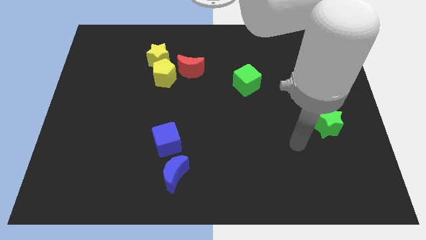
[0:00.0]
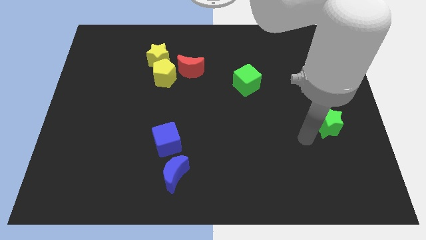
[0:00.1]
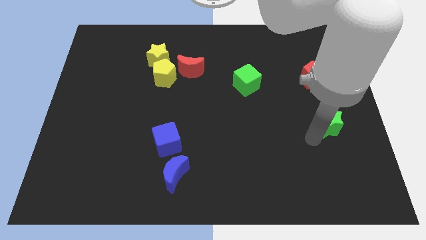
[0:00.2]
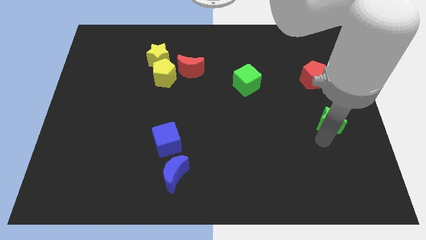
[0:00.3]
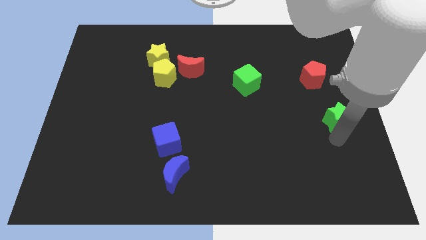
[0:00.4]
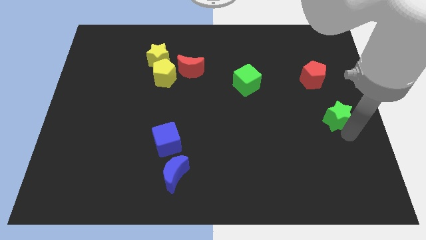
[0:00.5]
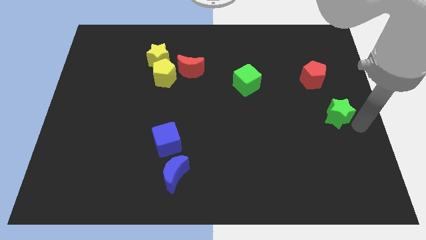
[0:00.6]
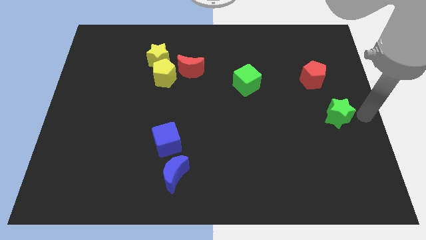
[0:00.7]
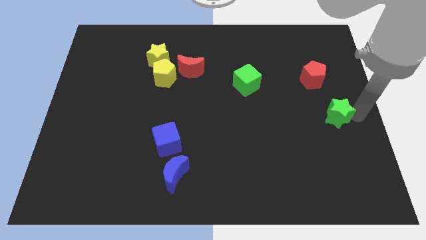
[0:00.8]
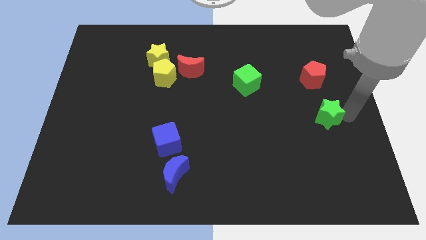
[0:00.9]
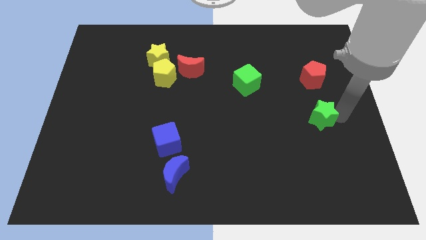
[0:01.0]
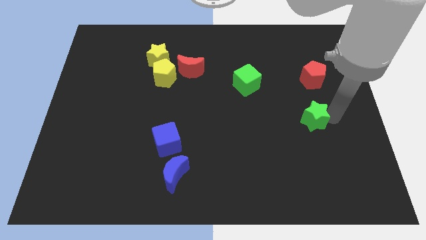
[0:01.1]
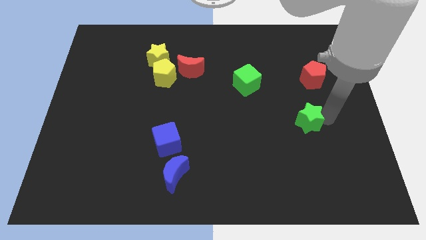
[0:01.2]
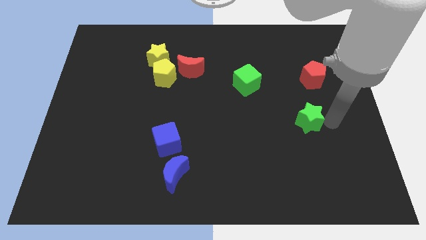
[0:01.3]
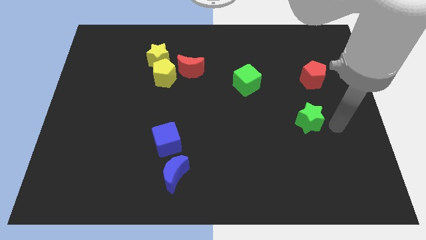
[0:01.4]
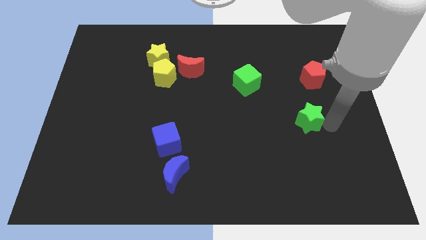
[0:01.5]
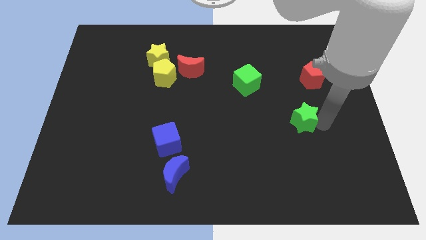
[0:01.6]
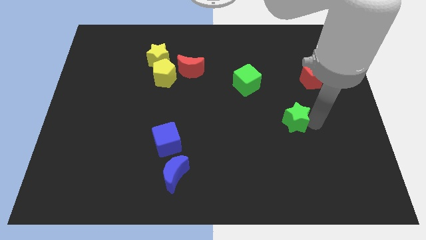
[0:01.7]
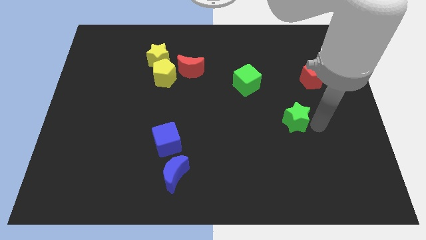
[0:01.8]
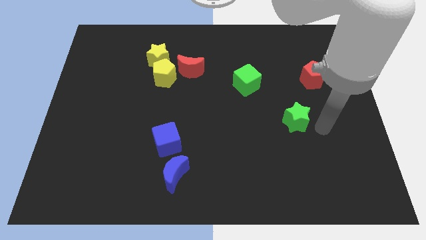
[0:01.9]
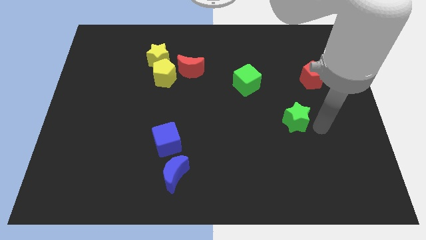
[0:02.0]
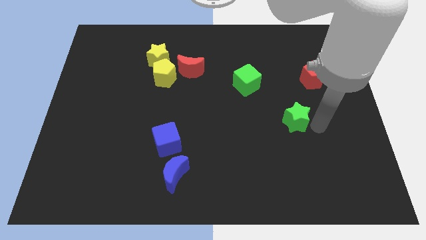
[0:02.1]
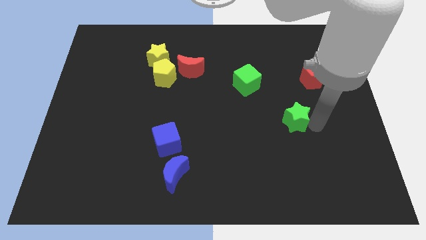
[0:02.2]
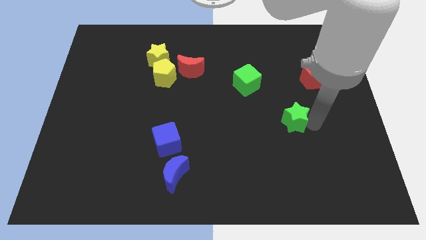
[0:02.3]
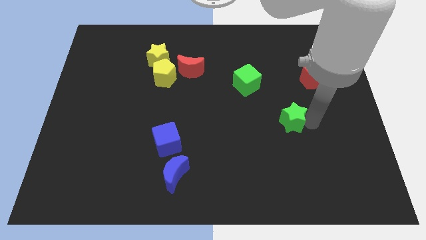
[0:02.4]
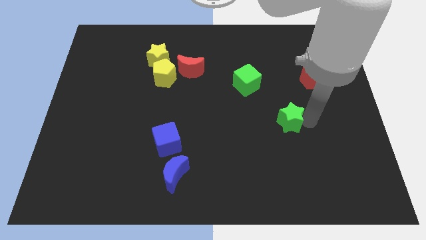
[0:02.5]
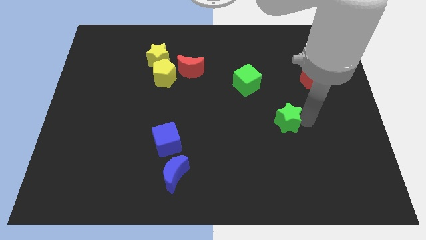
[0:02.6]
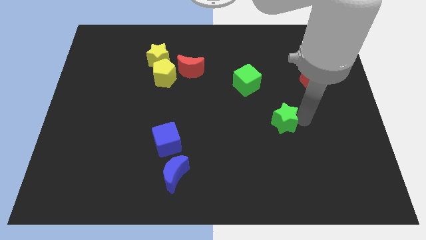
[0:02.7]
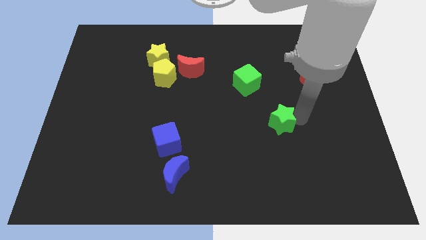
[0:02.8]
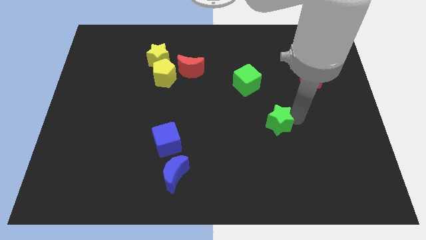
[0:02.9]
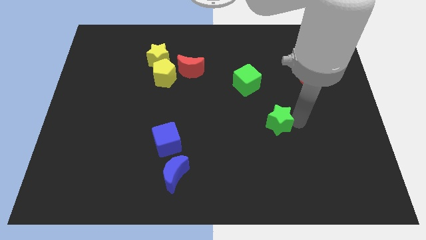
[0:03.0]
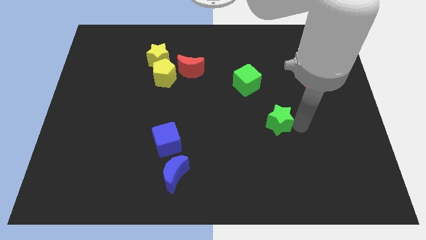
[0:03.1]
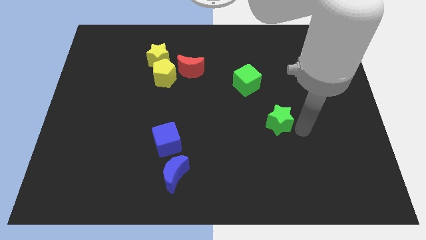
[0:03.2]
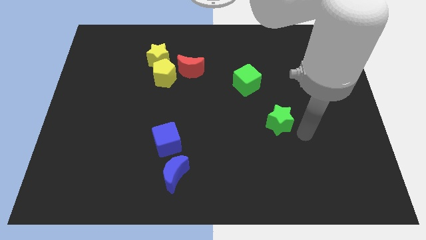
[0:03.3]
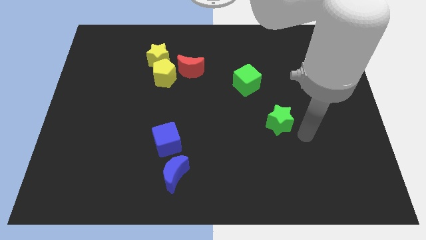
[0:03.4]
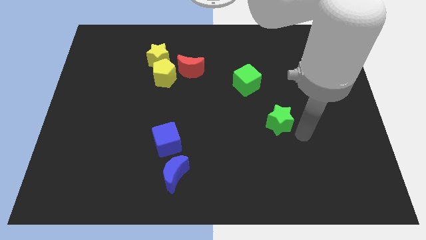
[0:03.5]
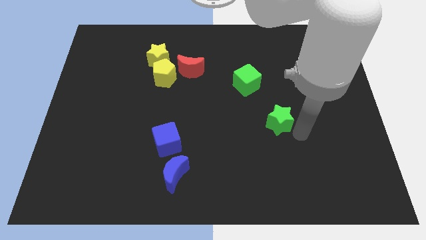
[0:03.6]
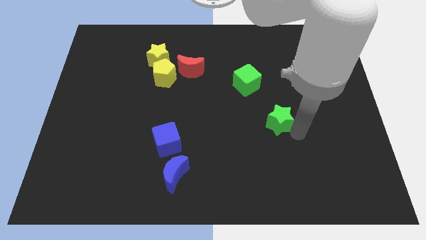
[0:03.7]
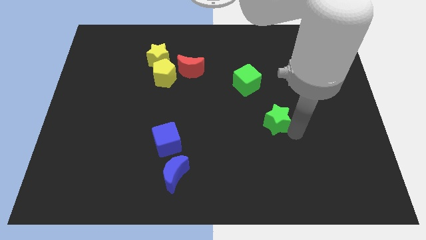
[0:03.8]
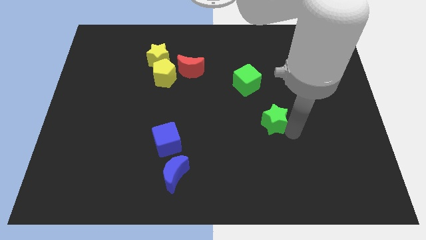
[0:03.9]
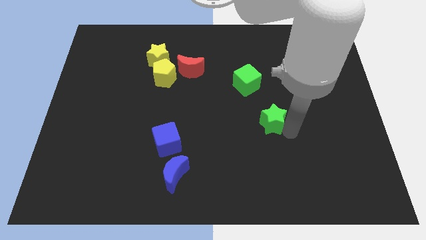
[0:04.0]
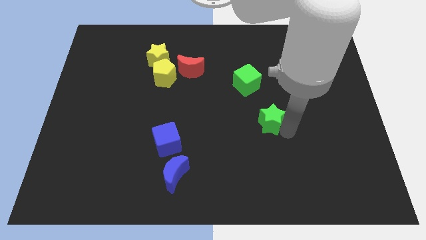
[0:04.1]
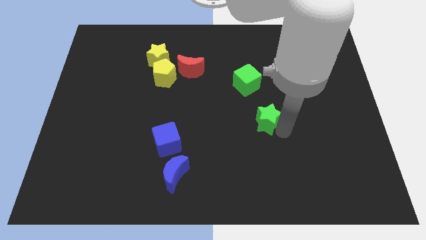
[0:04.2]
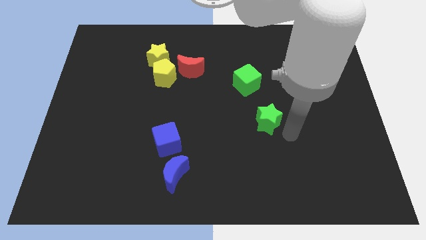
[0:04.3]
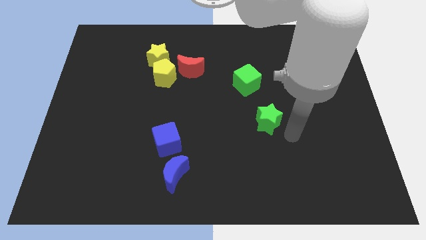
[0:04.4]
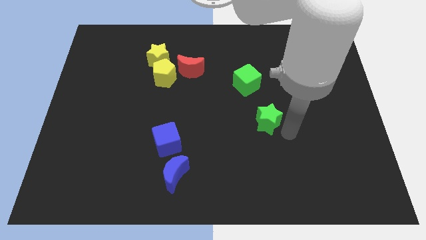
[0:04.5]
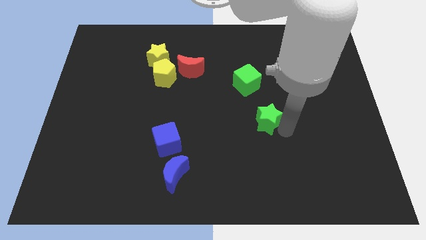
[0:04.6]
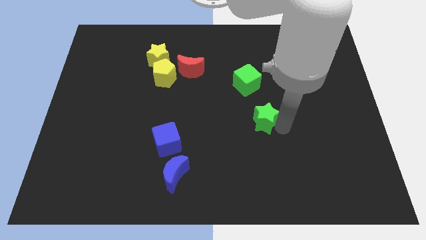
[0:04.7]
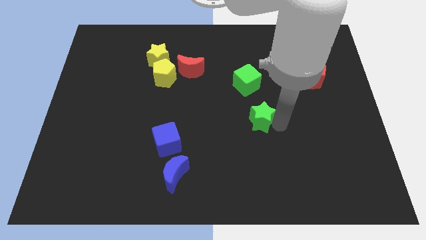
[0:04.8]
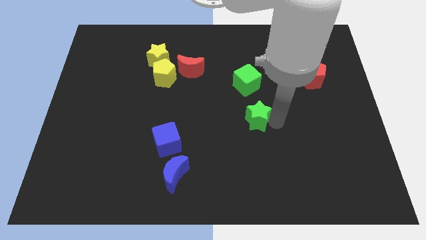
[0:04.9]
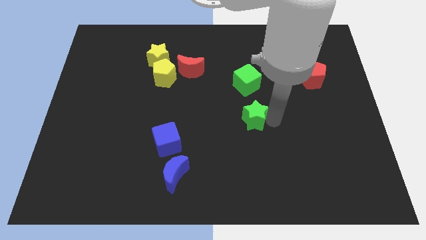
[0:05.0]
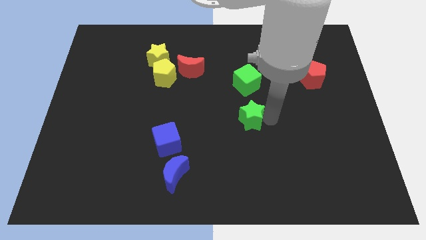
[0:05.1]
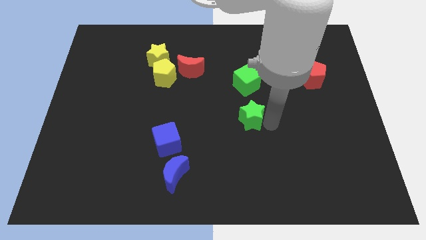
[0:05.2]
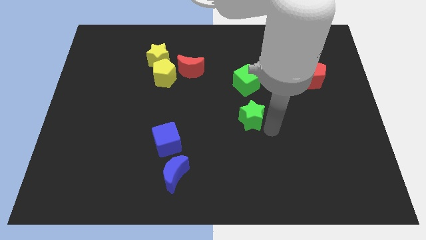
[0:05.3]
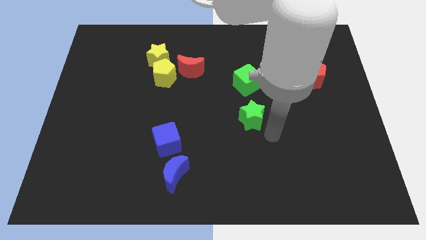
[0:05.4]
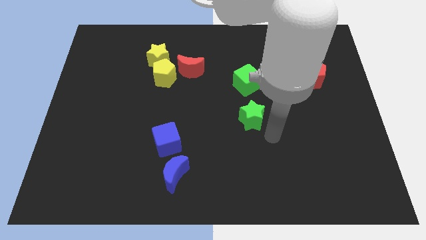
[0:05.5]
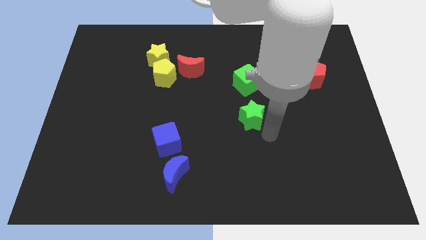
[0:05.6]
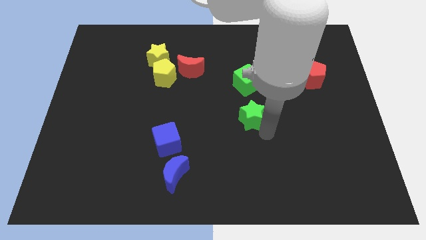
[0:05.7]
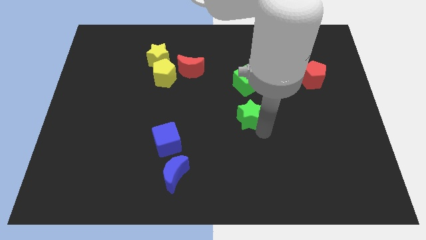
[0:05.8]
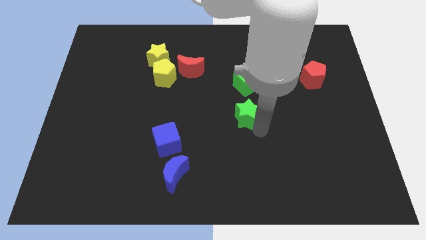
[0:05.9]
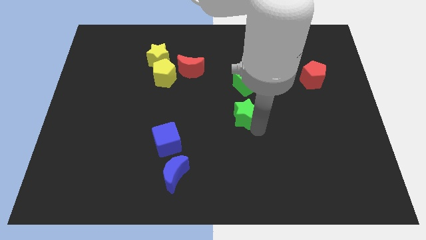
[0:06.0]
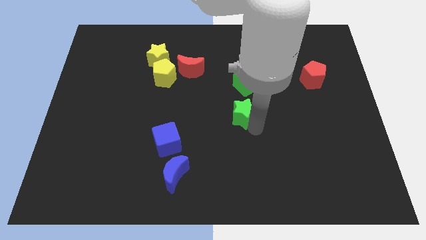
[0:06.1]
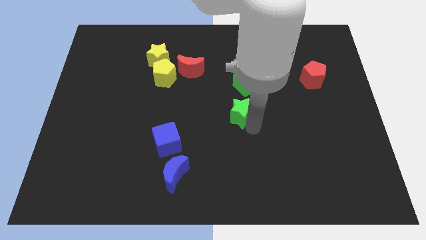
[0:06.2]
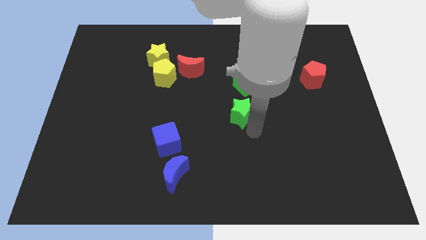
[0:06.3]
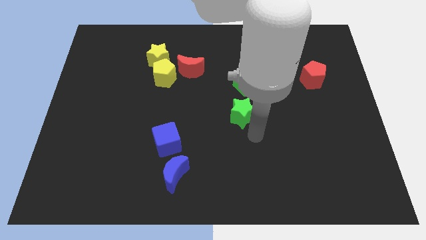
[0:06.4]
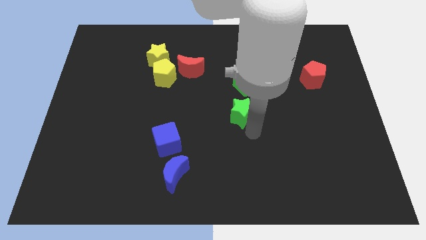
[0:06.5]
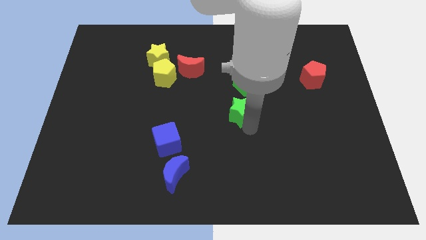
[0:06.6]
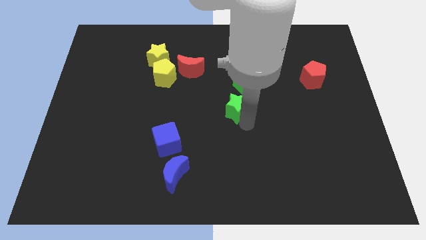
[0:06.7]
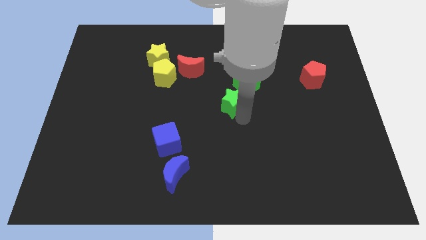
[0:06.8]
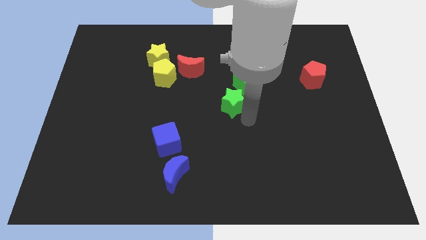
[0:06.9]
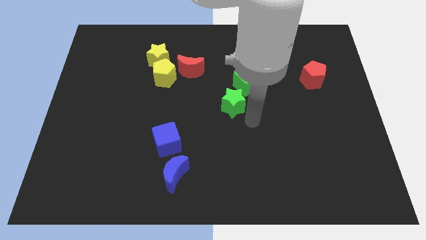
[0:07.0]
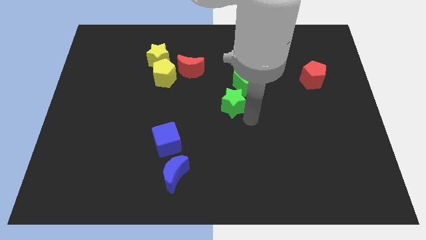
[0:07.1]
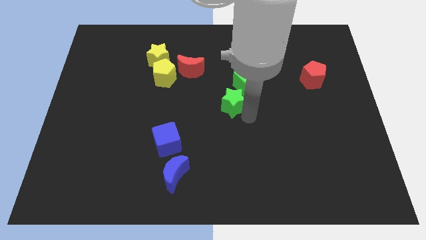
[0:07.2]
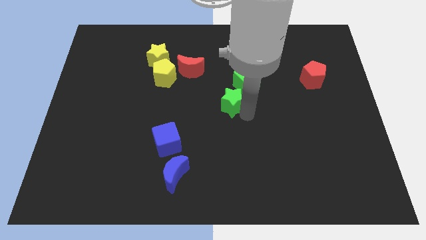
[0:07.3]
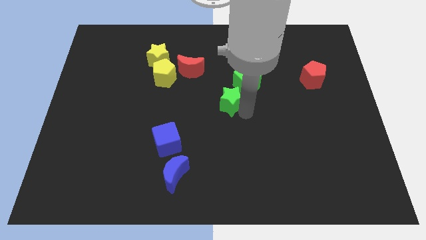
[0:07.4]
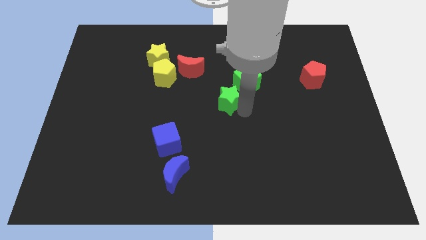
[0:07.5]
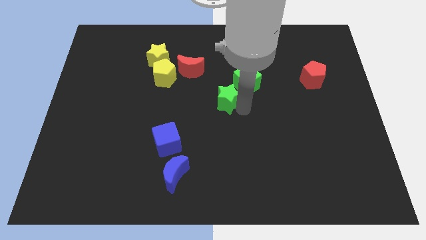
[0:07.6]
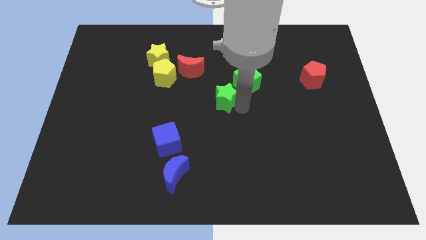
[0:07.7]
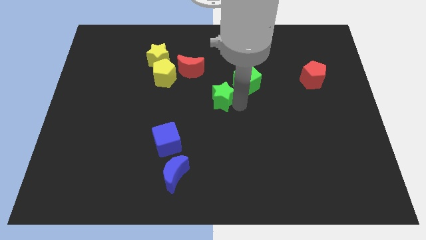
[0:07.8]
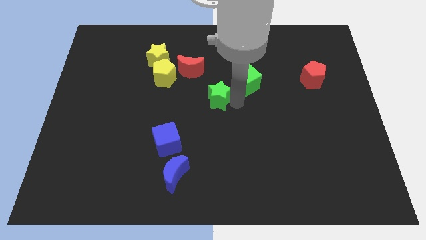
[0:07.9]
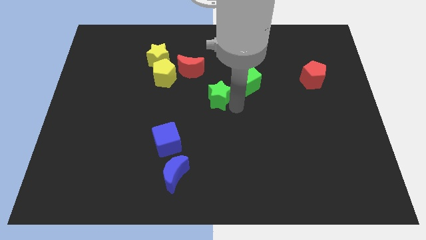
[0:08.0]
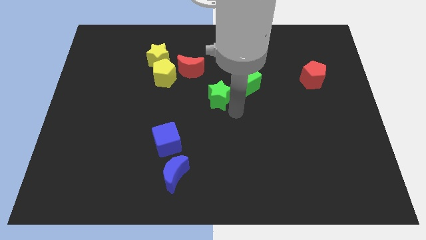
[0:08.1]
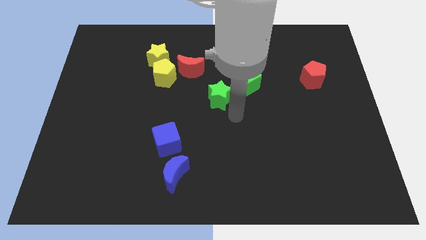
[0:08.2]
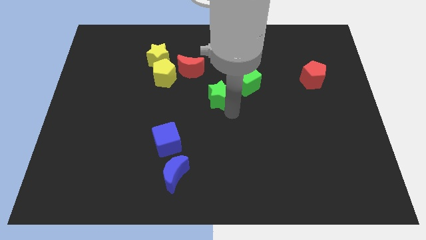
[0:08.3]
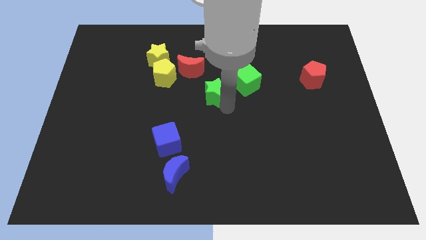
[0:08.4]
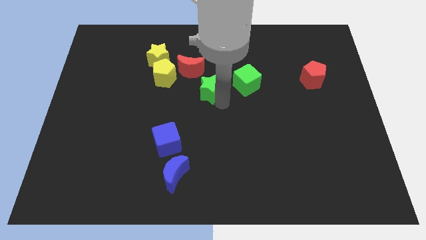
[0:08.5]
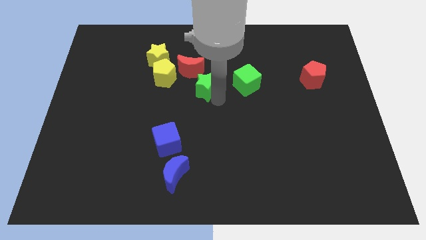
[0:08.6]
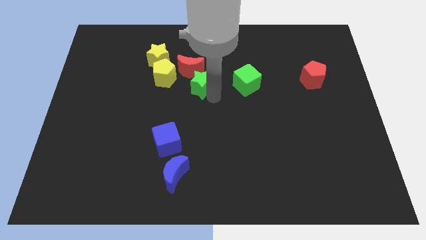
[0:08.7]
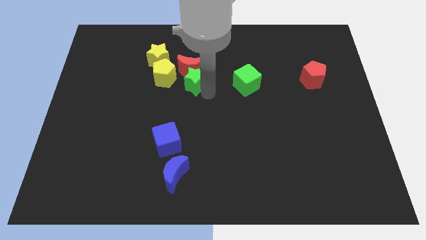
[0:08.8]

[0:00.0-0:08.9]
move the green star close to the red moon
